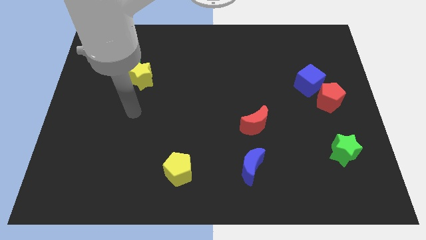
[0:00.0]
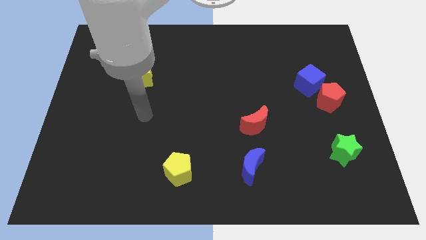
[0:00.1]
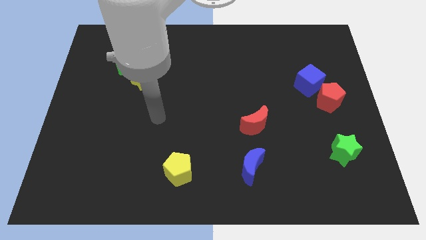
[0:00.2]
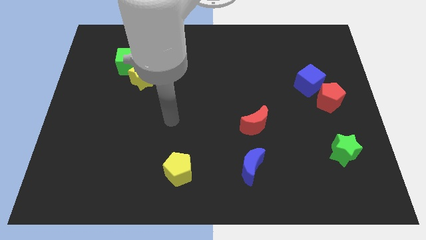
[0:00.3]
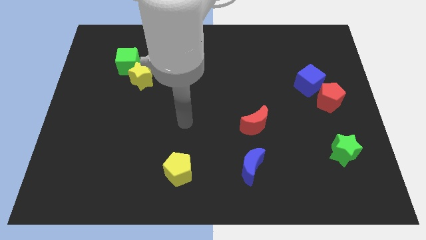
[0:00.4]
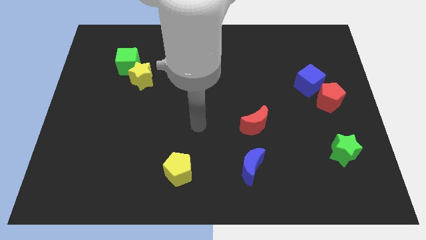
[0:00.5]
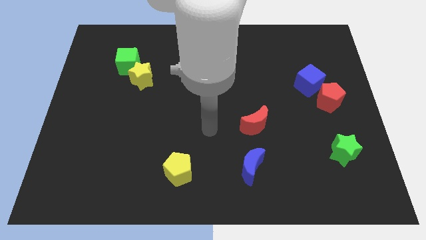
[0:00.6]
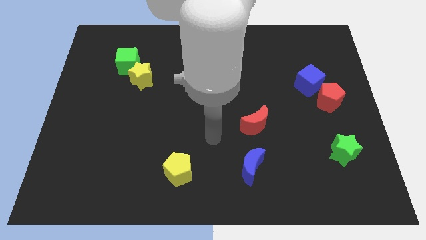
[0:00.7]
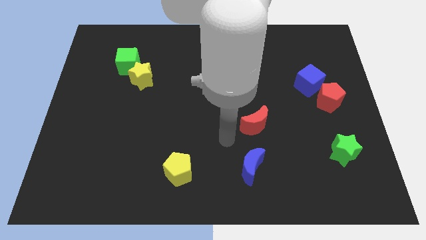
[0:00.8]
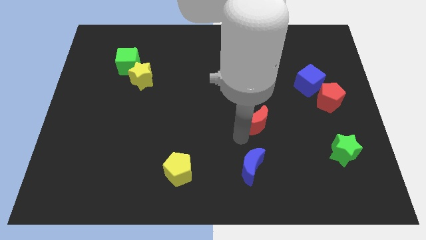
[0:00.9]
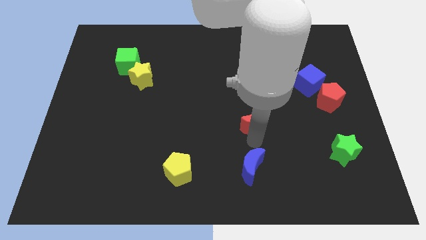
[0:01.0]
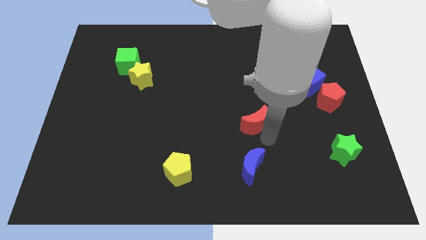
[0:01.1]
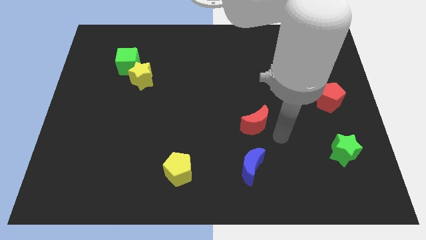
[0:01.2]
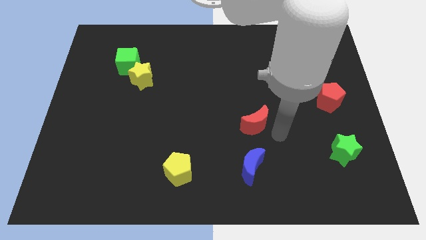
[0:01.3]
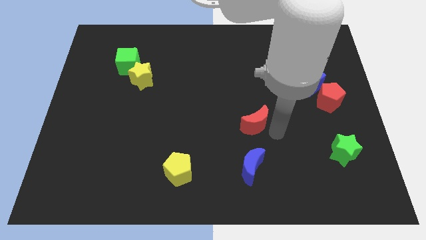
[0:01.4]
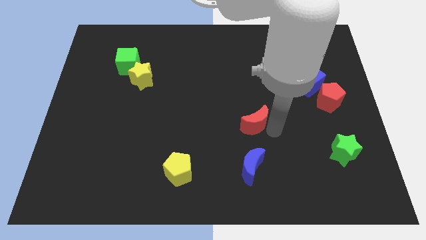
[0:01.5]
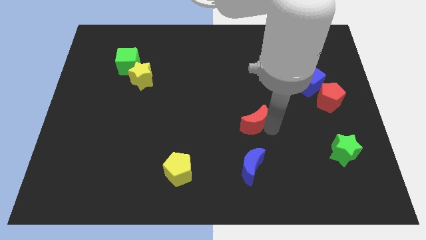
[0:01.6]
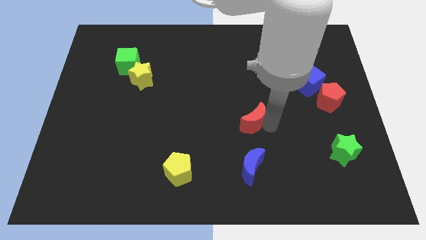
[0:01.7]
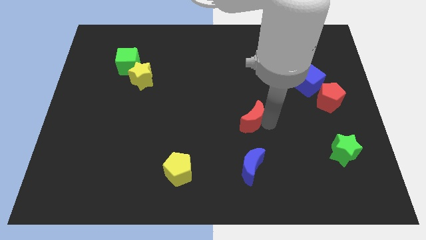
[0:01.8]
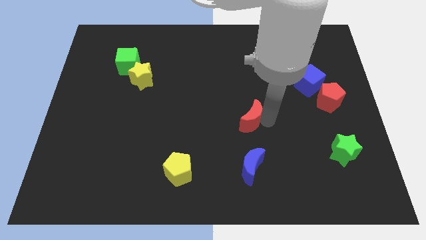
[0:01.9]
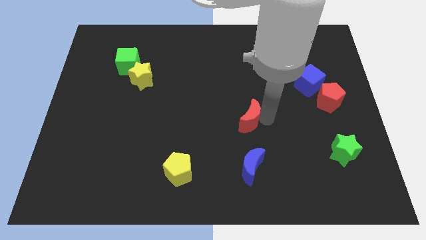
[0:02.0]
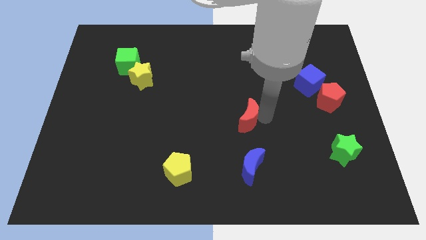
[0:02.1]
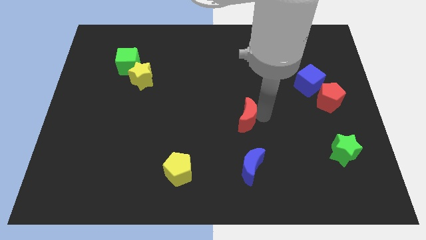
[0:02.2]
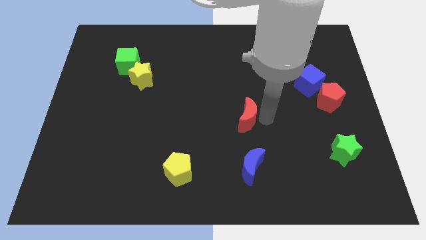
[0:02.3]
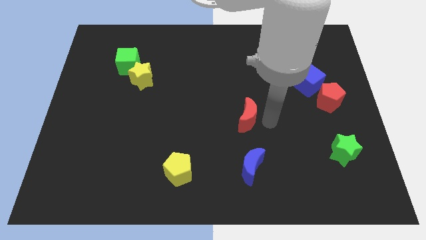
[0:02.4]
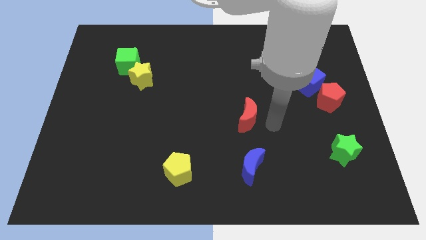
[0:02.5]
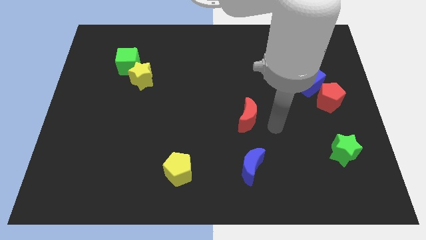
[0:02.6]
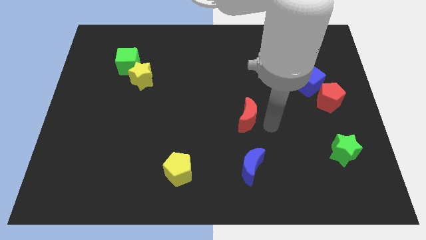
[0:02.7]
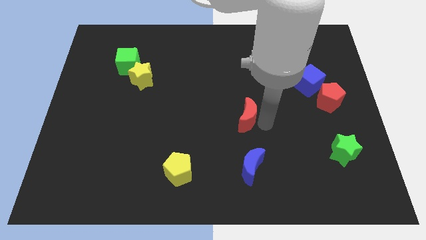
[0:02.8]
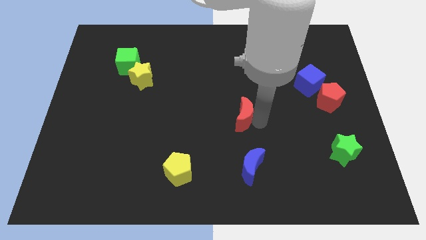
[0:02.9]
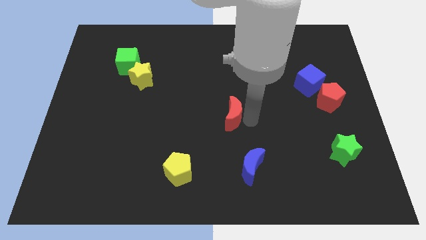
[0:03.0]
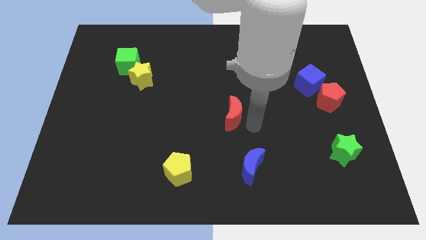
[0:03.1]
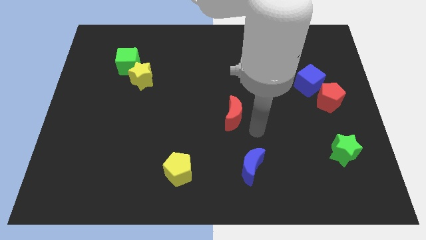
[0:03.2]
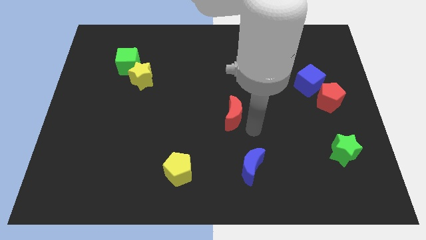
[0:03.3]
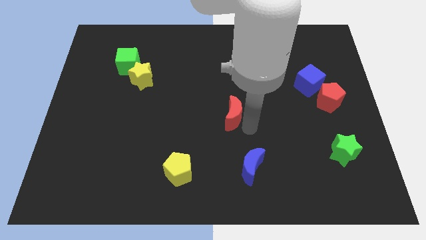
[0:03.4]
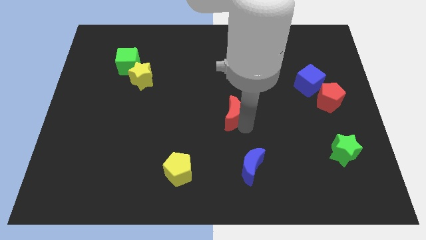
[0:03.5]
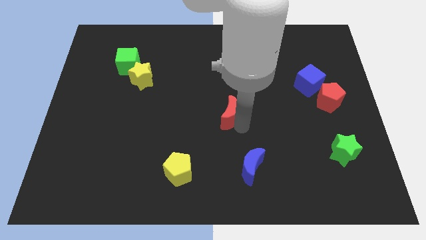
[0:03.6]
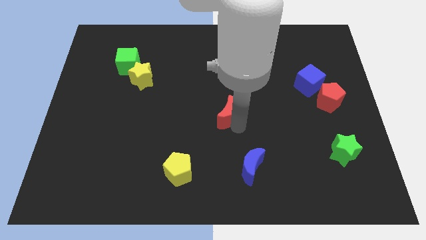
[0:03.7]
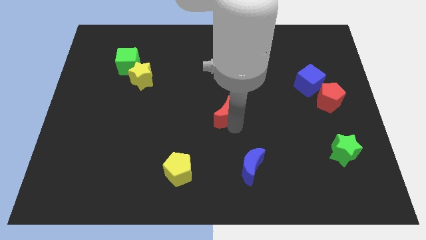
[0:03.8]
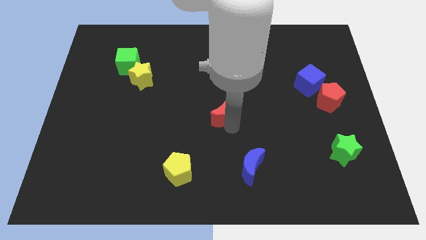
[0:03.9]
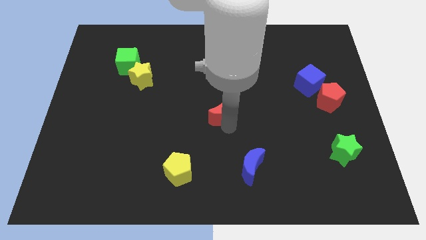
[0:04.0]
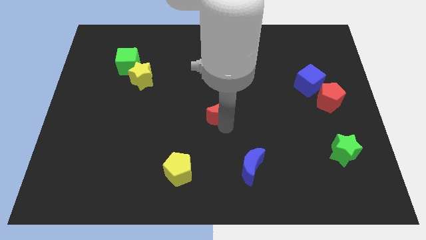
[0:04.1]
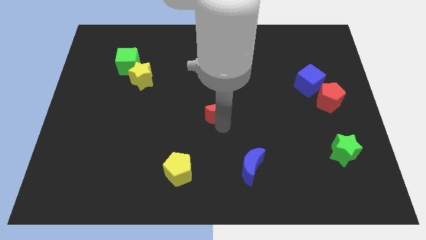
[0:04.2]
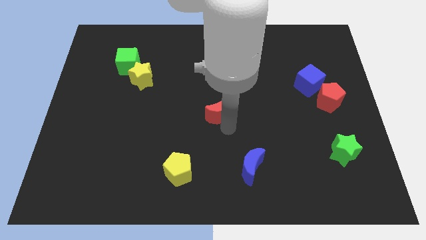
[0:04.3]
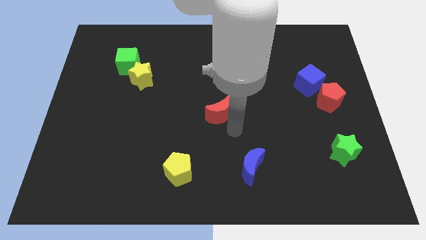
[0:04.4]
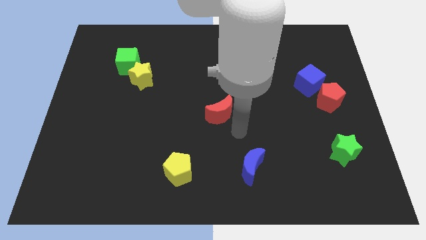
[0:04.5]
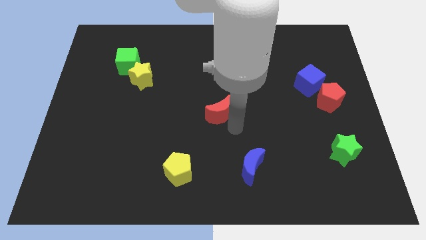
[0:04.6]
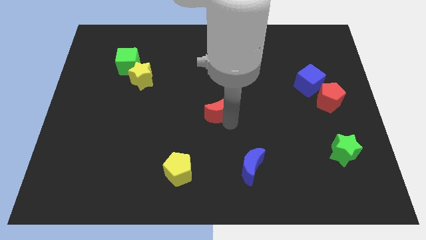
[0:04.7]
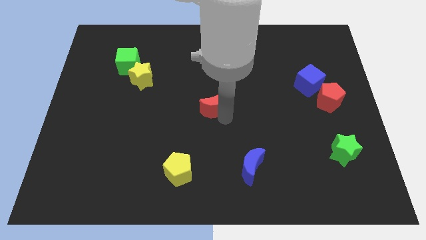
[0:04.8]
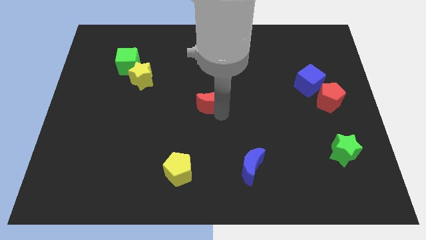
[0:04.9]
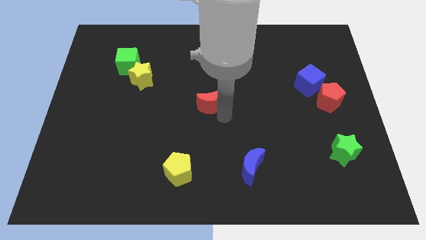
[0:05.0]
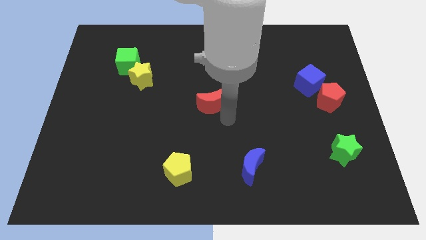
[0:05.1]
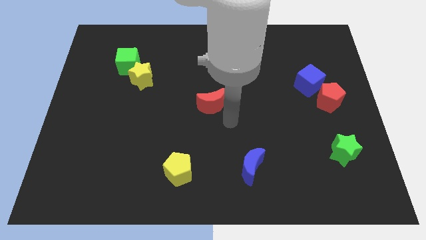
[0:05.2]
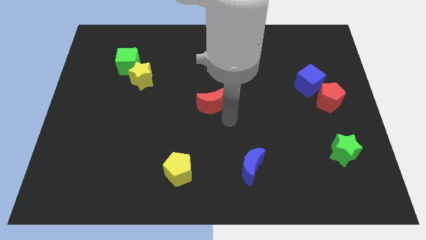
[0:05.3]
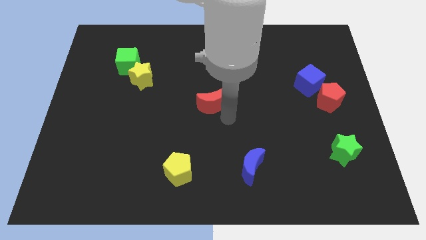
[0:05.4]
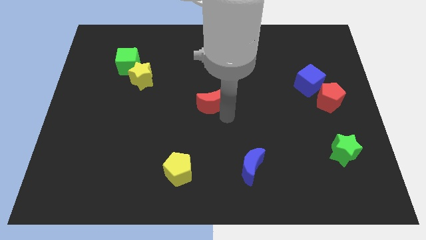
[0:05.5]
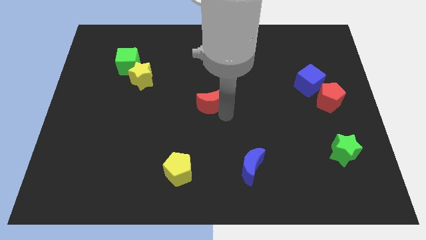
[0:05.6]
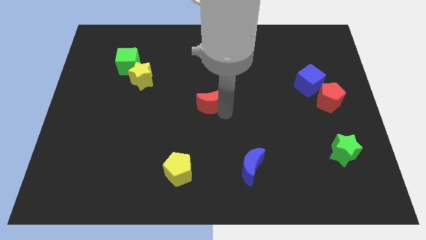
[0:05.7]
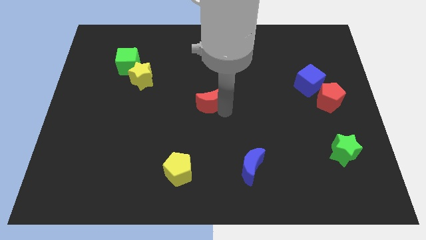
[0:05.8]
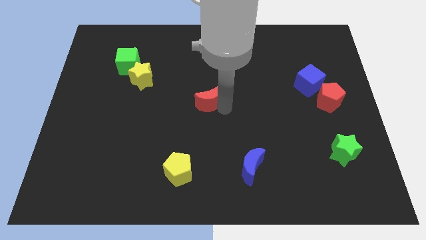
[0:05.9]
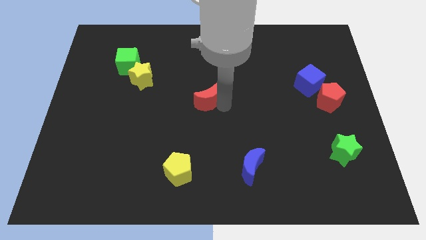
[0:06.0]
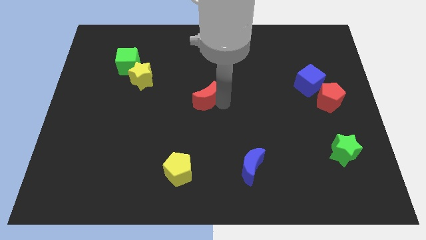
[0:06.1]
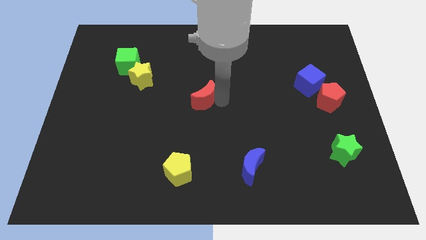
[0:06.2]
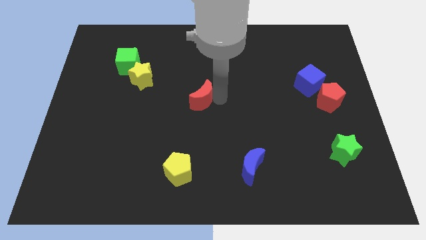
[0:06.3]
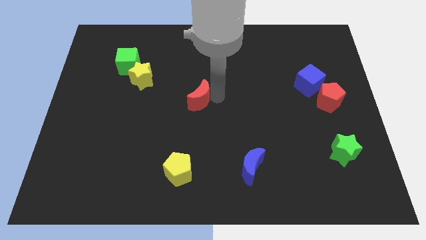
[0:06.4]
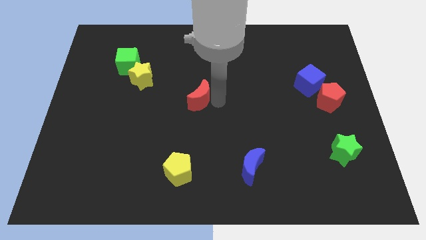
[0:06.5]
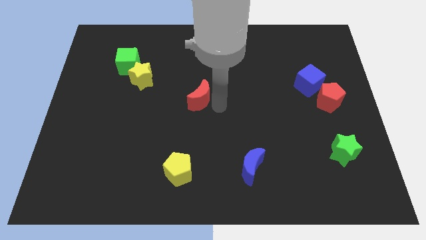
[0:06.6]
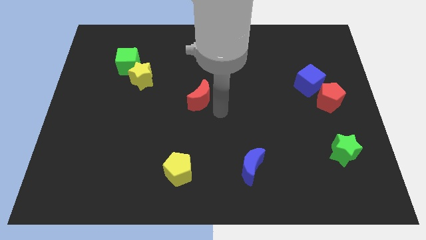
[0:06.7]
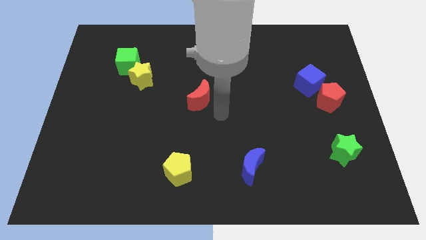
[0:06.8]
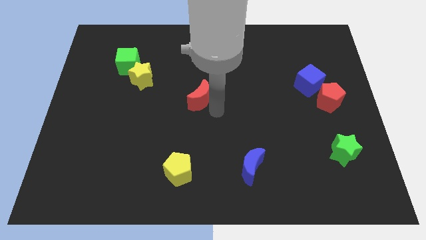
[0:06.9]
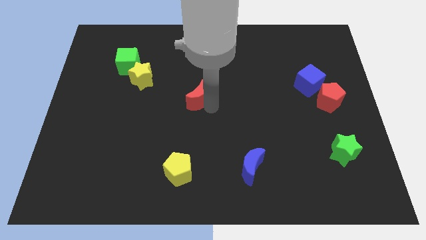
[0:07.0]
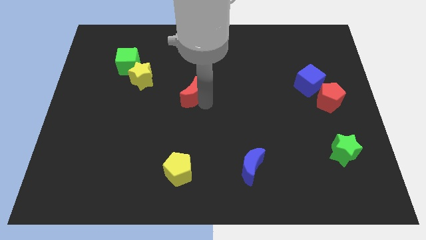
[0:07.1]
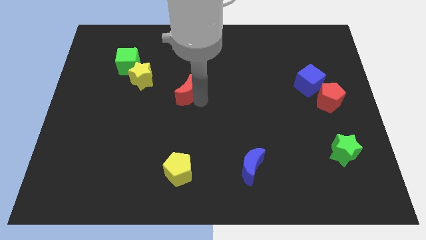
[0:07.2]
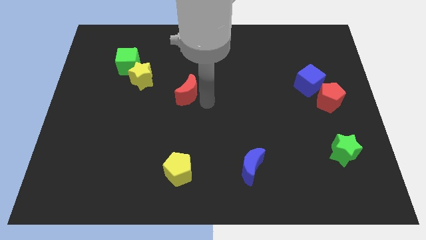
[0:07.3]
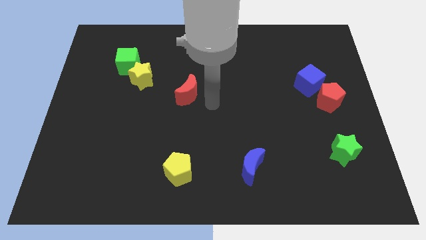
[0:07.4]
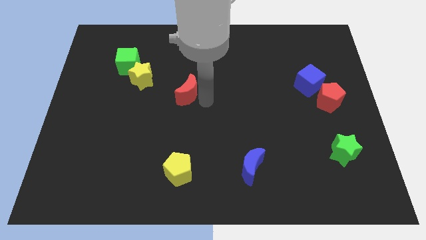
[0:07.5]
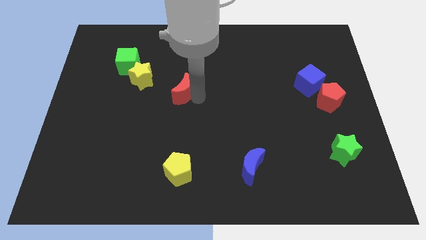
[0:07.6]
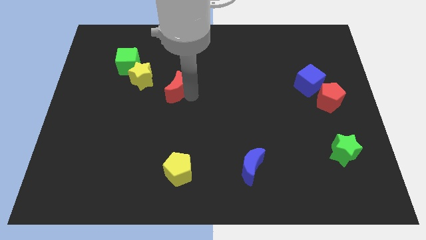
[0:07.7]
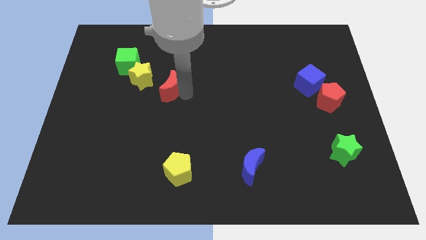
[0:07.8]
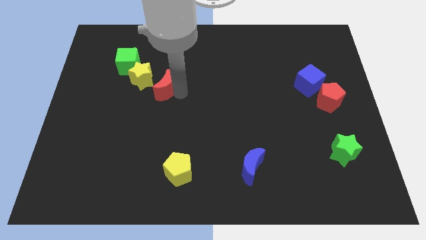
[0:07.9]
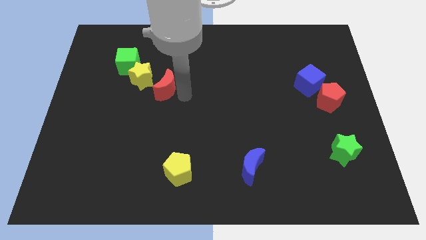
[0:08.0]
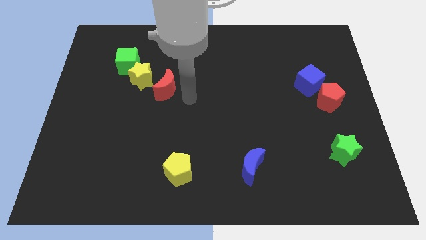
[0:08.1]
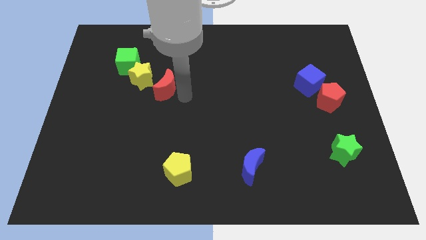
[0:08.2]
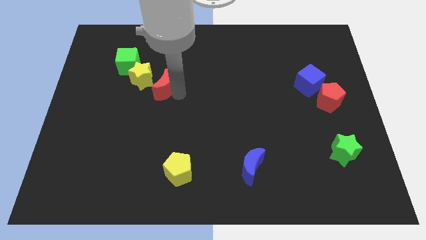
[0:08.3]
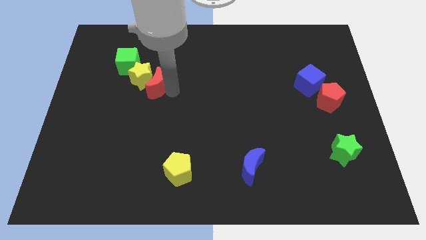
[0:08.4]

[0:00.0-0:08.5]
move the red moon next to the yellow star
